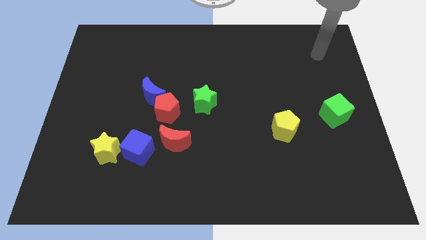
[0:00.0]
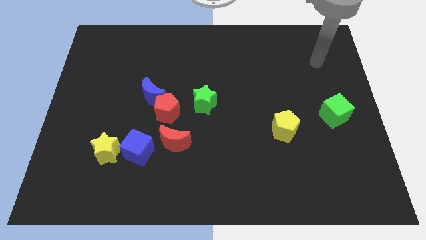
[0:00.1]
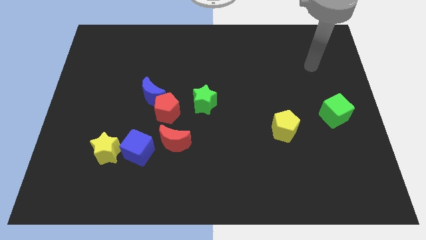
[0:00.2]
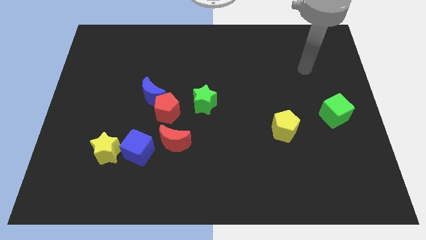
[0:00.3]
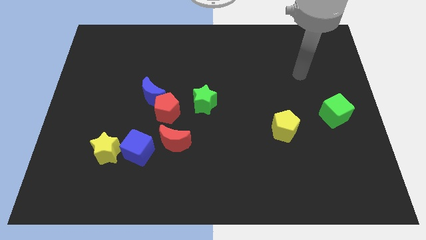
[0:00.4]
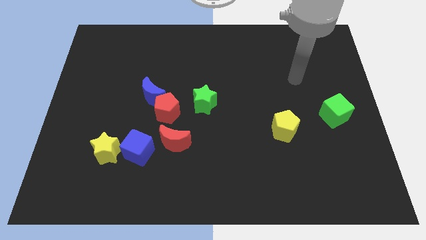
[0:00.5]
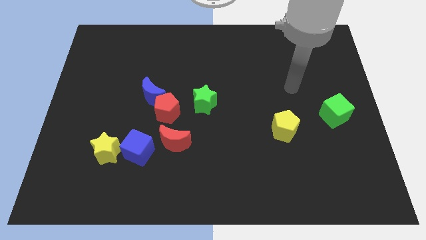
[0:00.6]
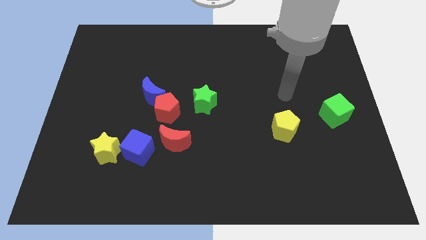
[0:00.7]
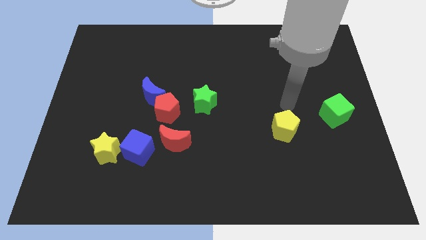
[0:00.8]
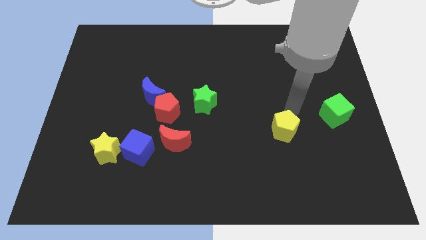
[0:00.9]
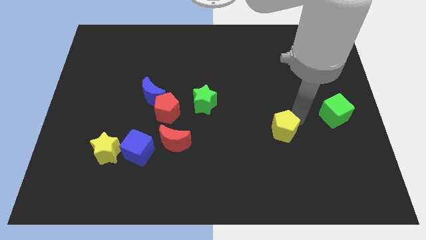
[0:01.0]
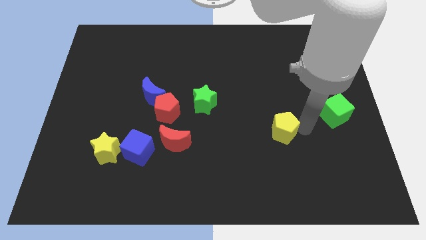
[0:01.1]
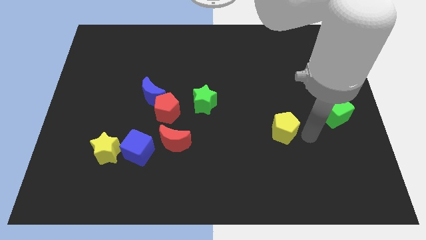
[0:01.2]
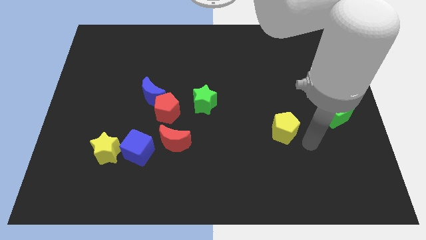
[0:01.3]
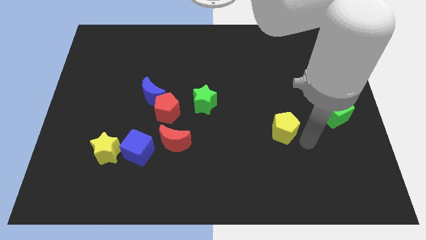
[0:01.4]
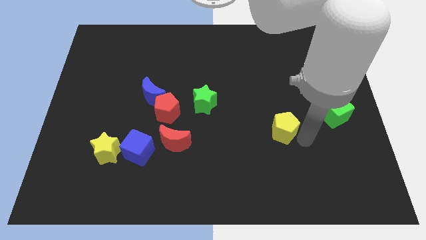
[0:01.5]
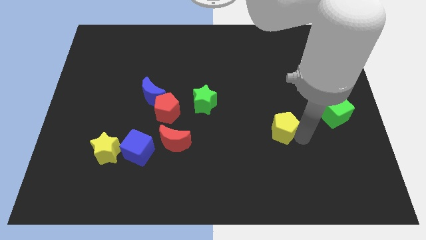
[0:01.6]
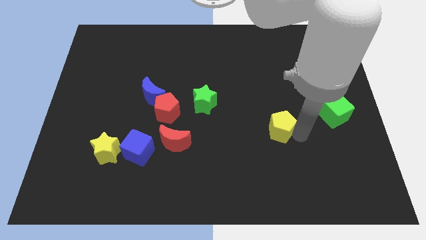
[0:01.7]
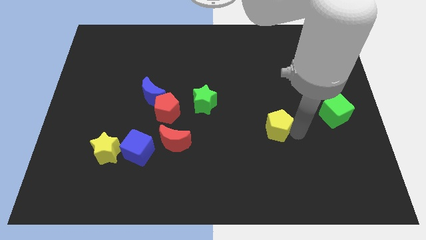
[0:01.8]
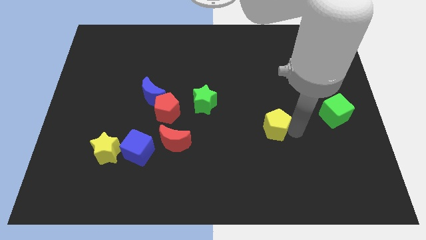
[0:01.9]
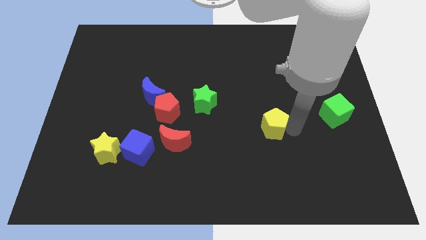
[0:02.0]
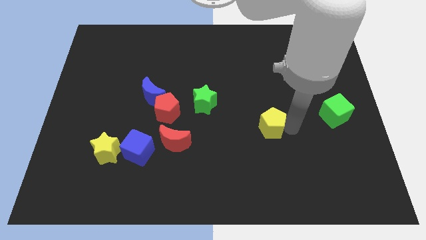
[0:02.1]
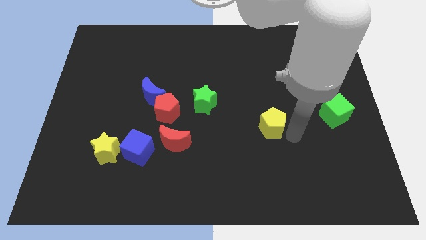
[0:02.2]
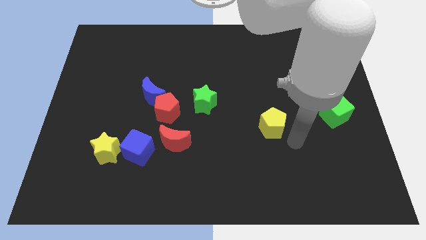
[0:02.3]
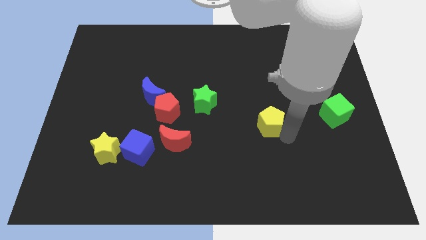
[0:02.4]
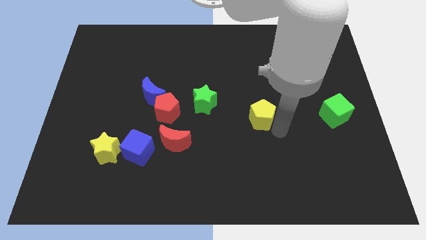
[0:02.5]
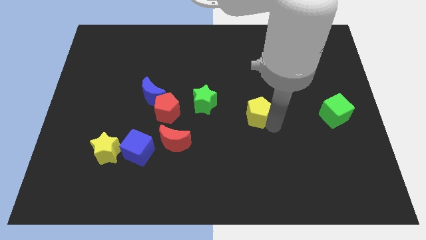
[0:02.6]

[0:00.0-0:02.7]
slightly move the yellow pentagon upwards and left

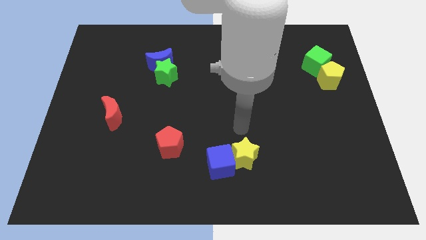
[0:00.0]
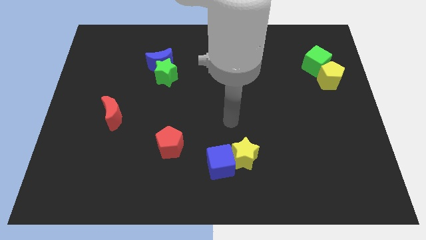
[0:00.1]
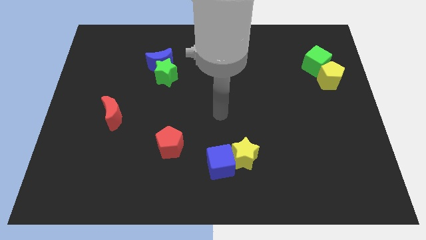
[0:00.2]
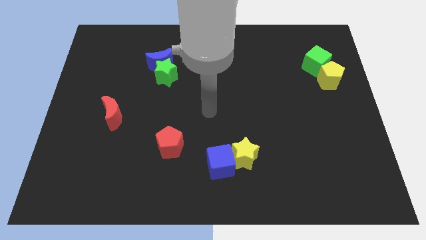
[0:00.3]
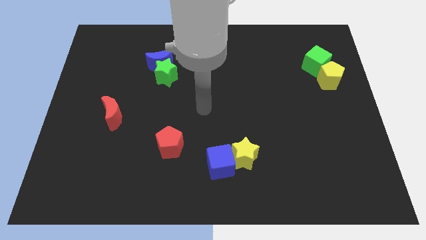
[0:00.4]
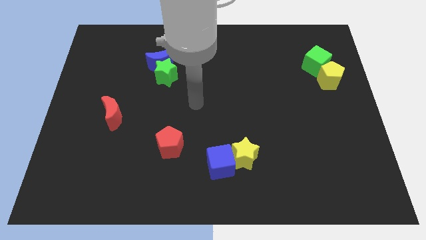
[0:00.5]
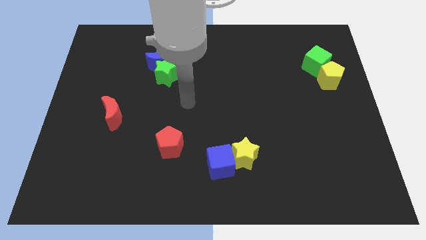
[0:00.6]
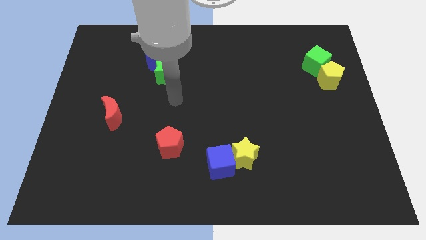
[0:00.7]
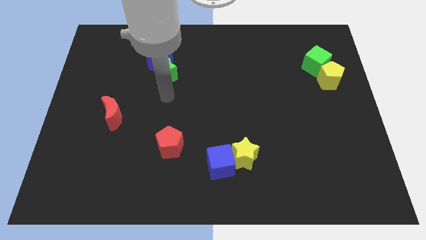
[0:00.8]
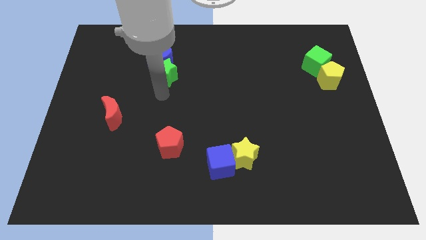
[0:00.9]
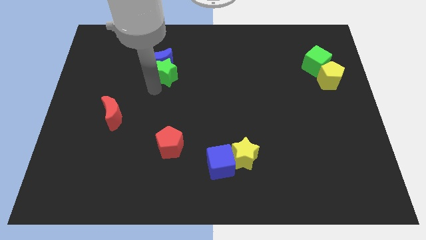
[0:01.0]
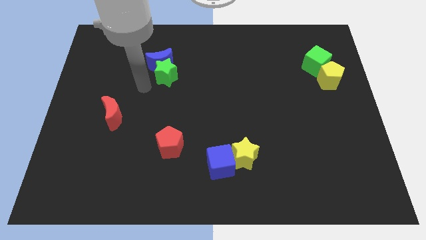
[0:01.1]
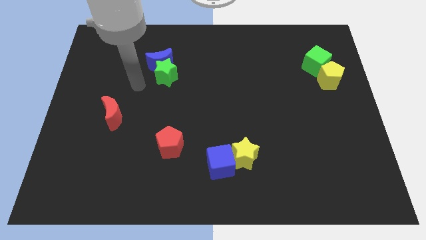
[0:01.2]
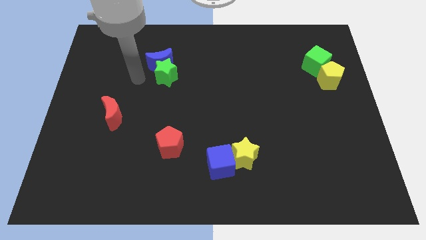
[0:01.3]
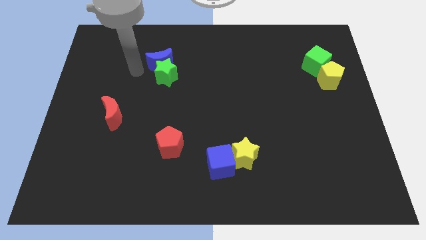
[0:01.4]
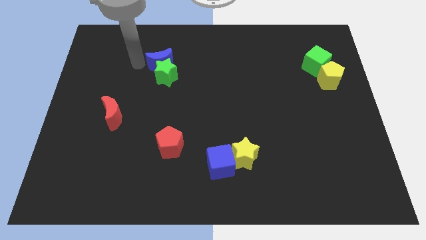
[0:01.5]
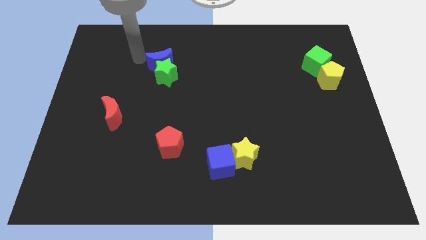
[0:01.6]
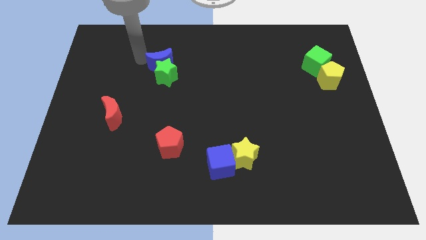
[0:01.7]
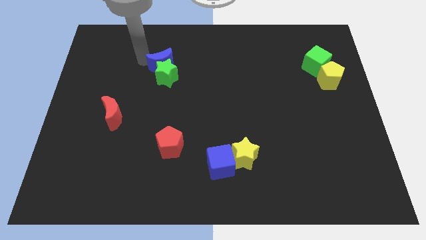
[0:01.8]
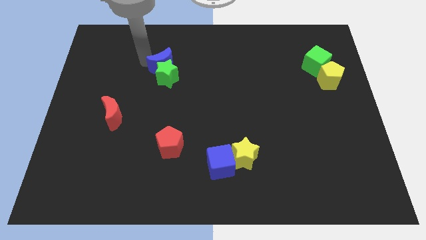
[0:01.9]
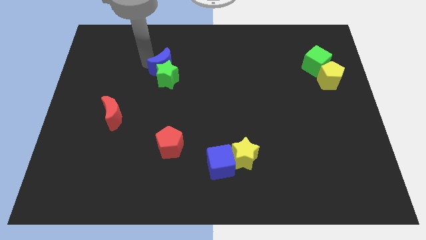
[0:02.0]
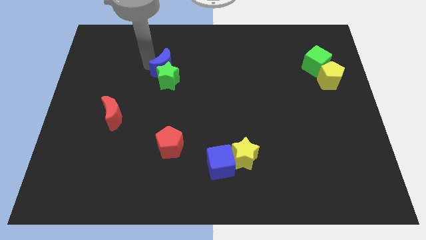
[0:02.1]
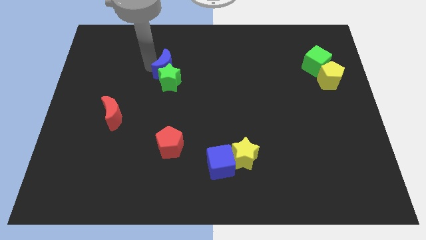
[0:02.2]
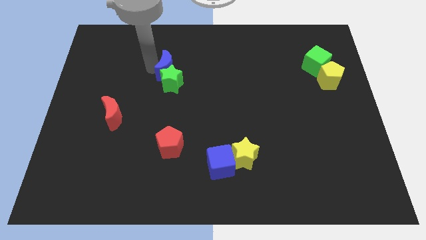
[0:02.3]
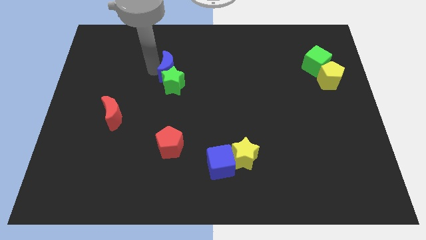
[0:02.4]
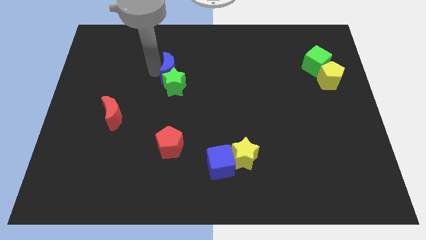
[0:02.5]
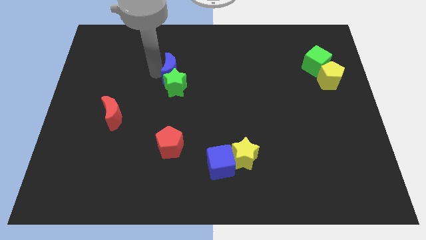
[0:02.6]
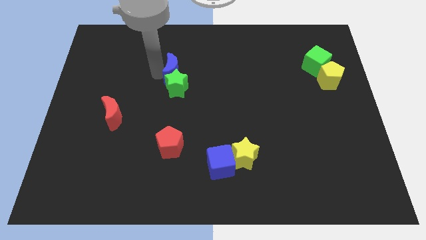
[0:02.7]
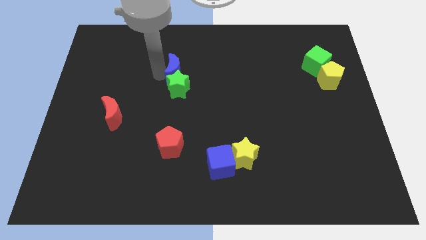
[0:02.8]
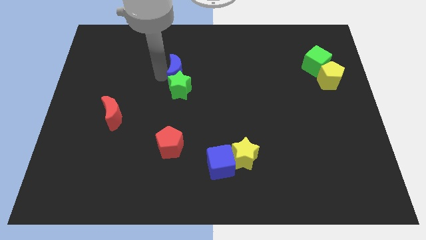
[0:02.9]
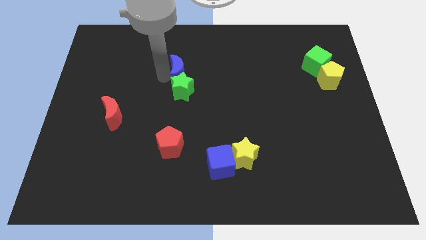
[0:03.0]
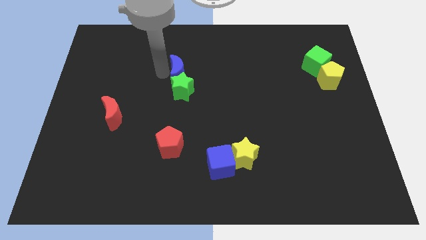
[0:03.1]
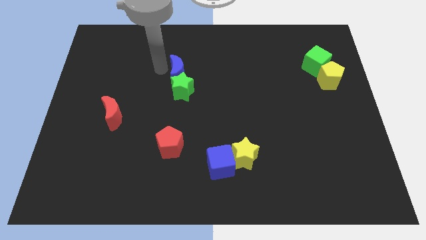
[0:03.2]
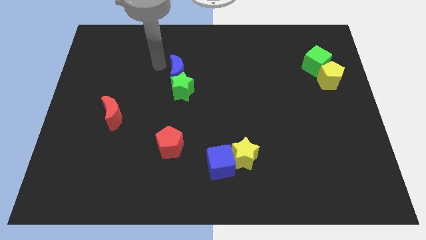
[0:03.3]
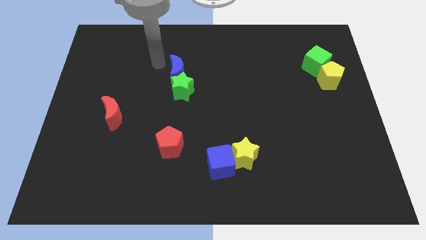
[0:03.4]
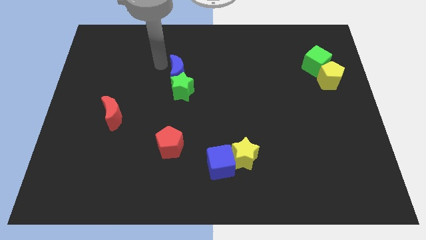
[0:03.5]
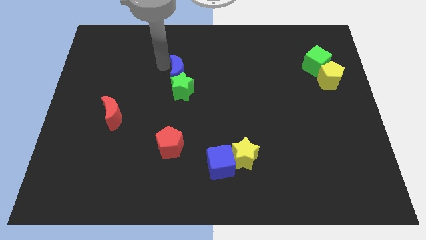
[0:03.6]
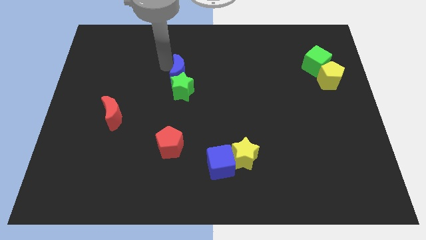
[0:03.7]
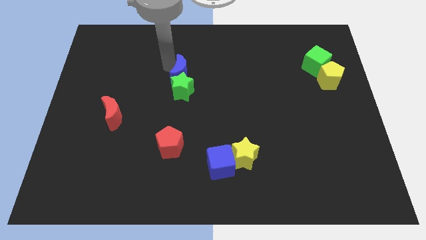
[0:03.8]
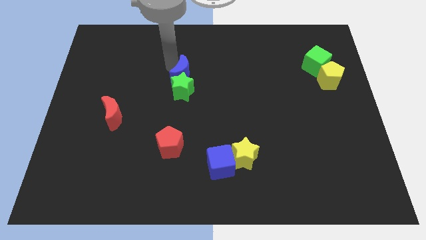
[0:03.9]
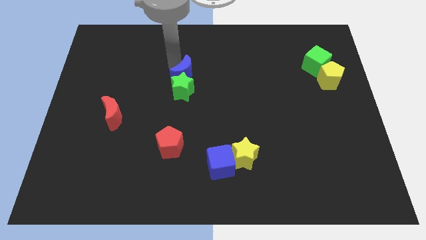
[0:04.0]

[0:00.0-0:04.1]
slide the blue moon somewhat down and then to the right

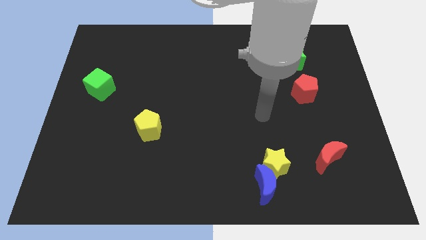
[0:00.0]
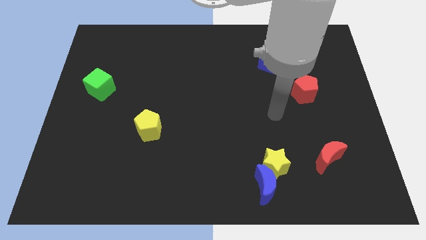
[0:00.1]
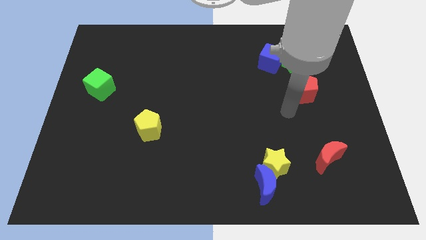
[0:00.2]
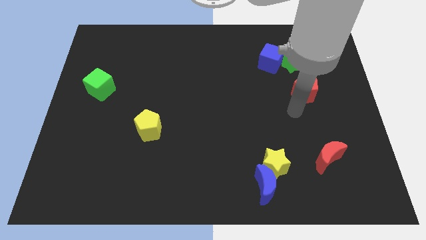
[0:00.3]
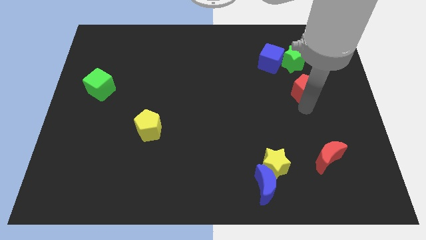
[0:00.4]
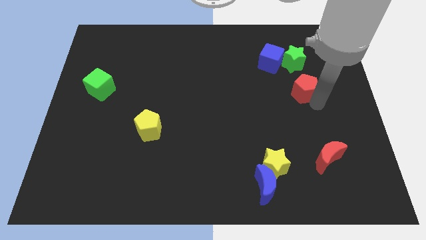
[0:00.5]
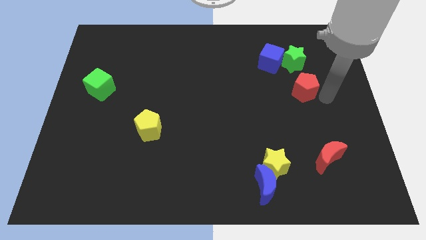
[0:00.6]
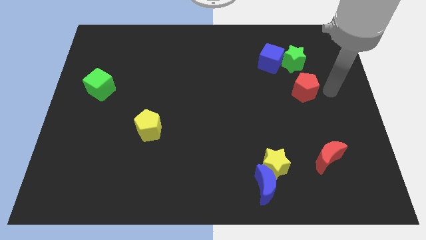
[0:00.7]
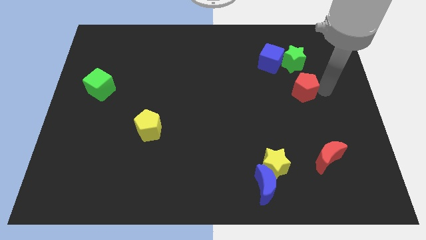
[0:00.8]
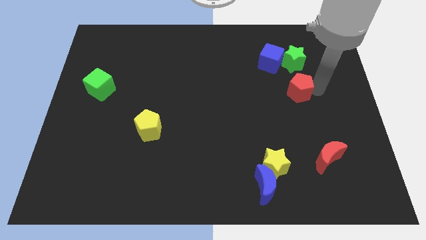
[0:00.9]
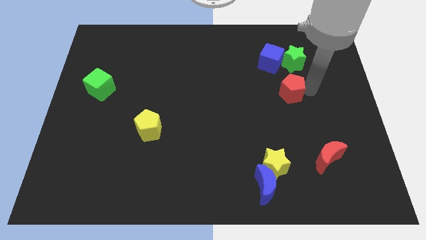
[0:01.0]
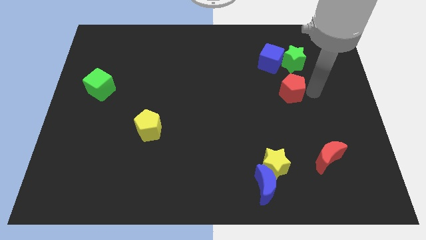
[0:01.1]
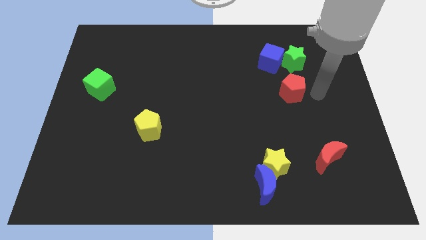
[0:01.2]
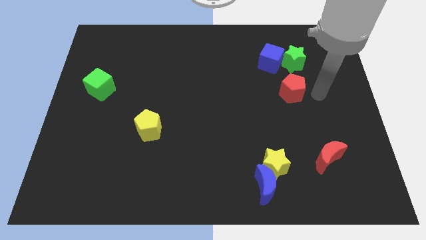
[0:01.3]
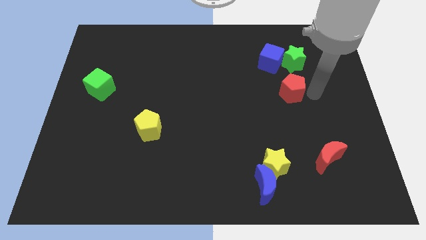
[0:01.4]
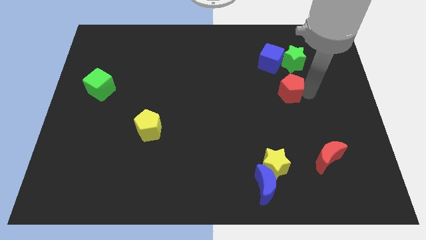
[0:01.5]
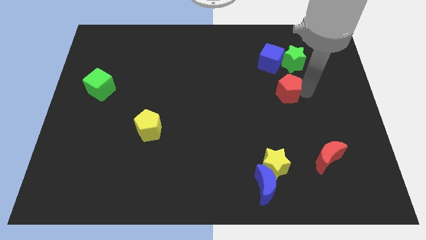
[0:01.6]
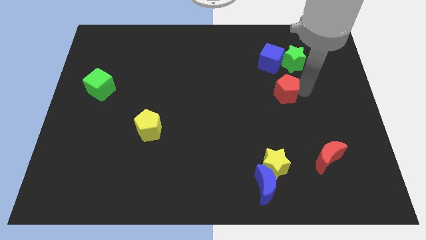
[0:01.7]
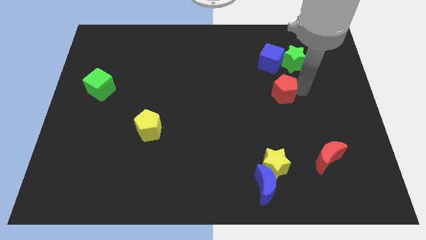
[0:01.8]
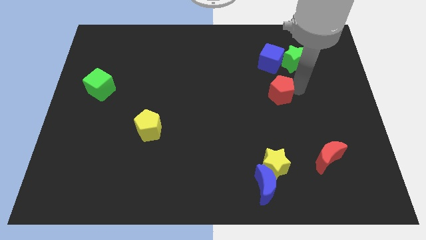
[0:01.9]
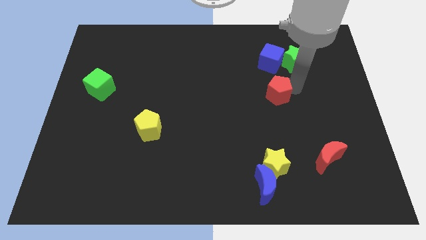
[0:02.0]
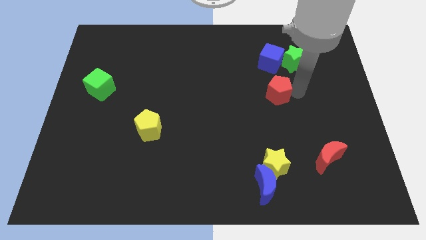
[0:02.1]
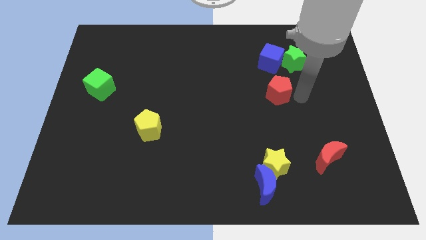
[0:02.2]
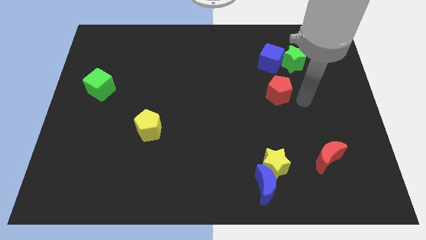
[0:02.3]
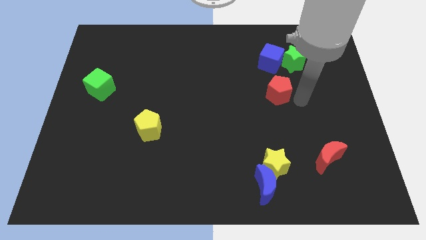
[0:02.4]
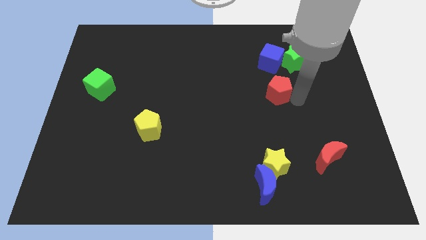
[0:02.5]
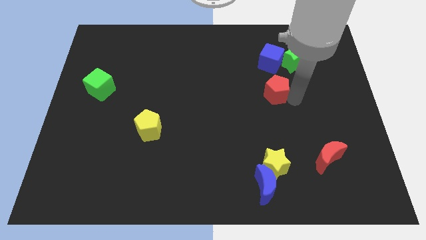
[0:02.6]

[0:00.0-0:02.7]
slightly slide the red pentagon left
